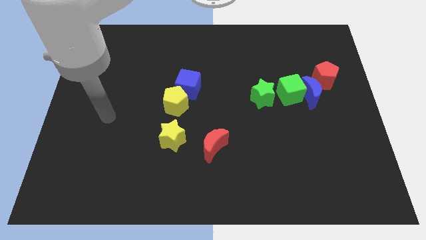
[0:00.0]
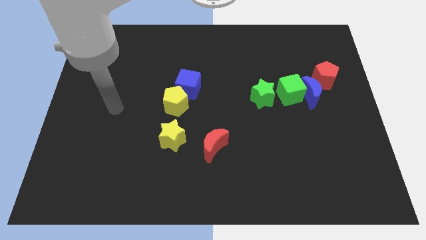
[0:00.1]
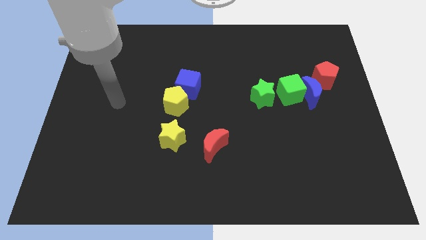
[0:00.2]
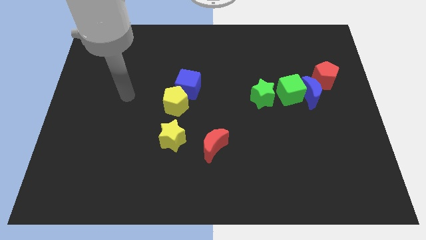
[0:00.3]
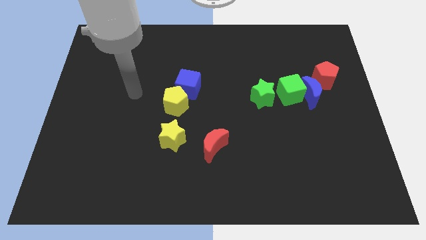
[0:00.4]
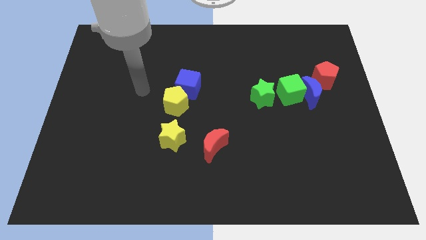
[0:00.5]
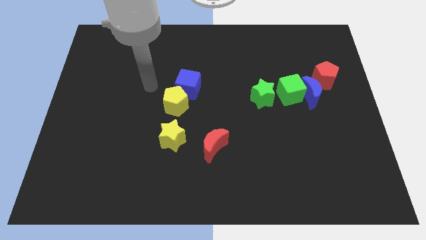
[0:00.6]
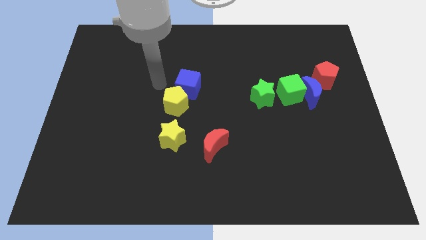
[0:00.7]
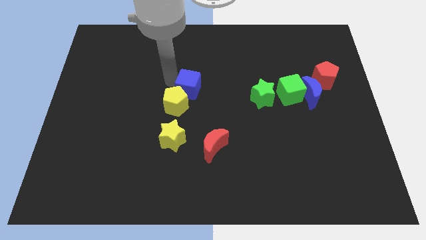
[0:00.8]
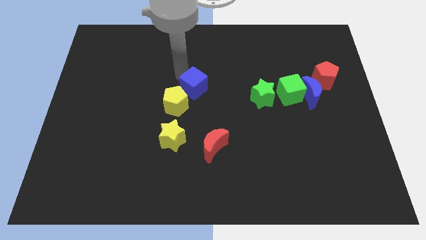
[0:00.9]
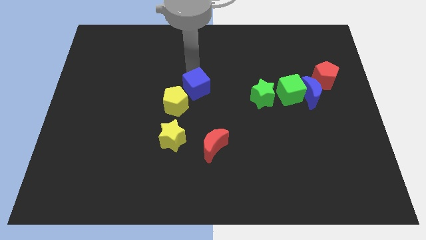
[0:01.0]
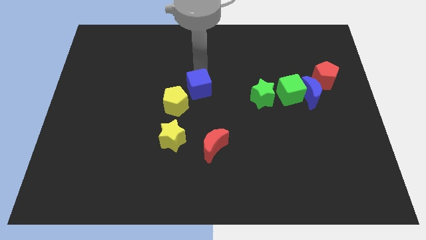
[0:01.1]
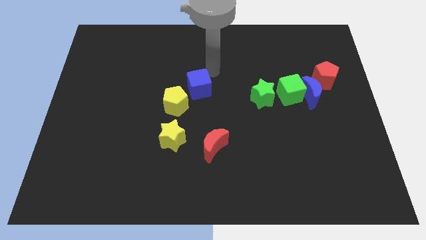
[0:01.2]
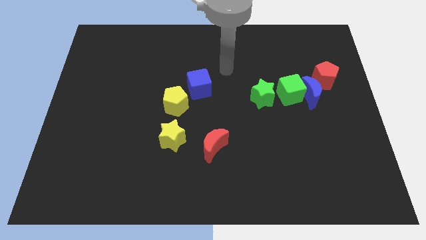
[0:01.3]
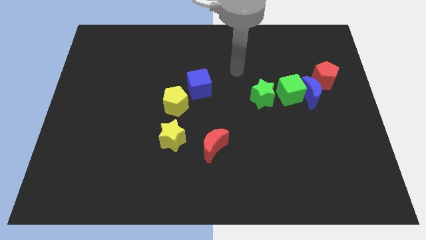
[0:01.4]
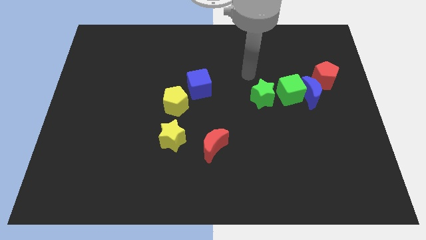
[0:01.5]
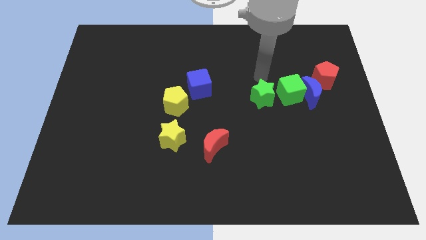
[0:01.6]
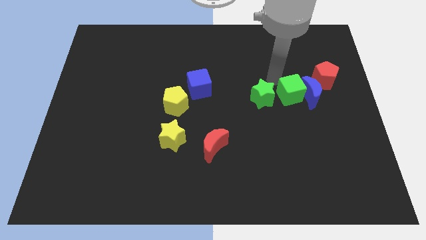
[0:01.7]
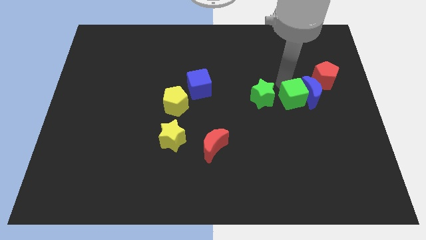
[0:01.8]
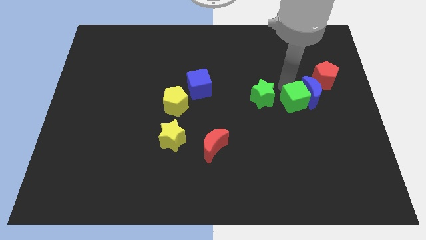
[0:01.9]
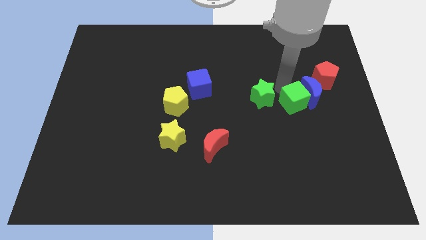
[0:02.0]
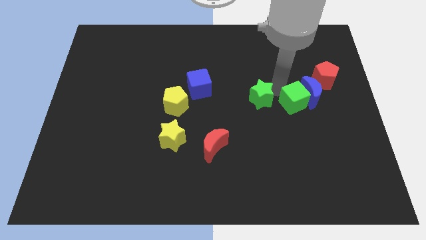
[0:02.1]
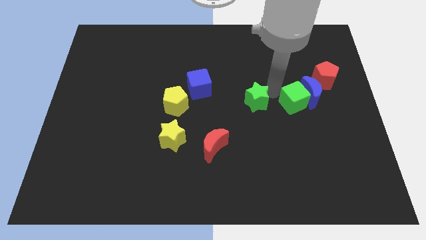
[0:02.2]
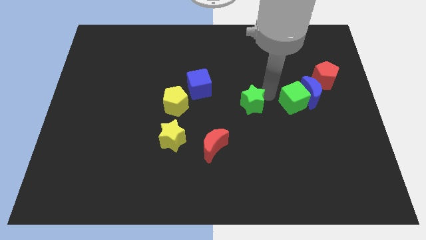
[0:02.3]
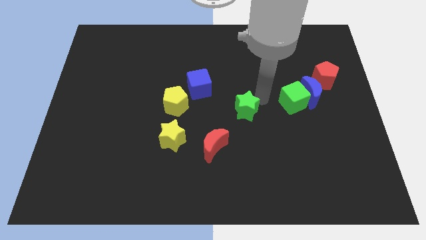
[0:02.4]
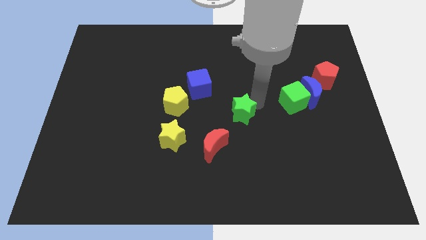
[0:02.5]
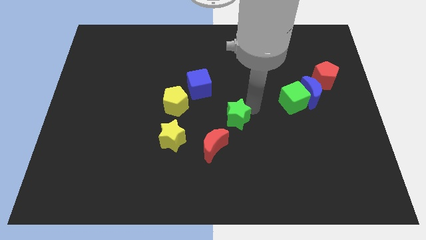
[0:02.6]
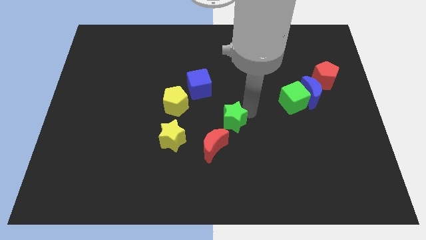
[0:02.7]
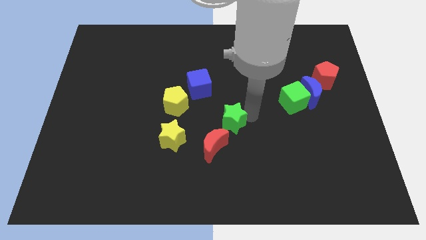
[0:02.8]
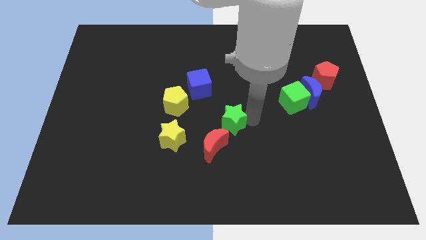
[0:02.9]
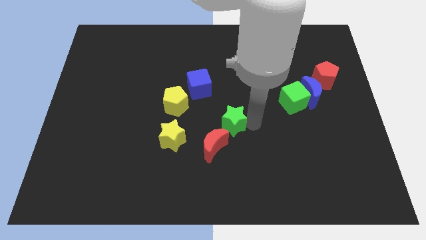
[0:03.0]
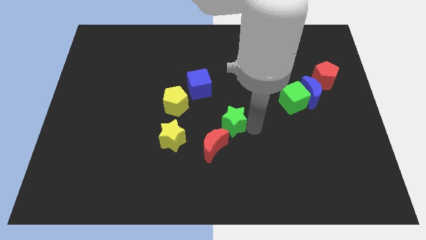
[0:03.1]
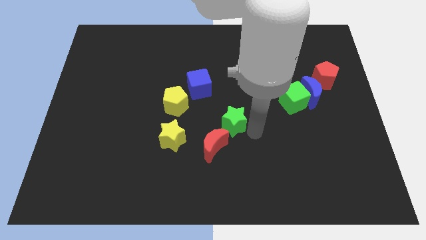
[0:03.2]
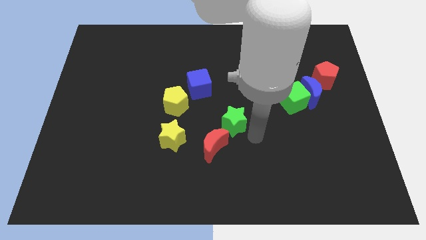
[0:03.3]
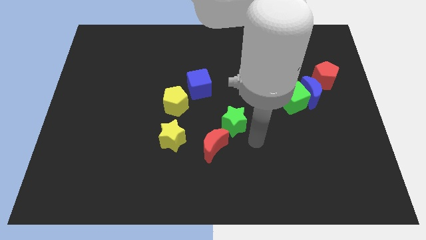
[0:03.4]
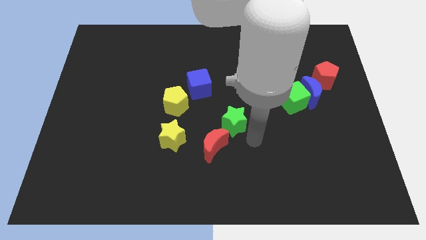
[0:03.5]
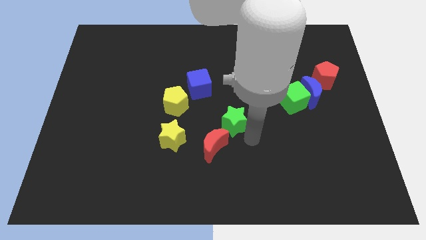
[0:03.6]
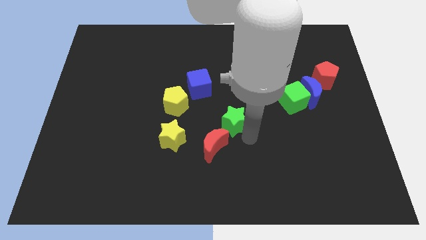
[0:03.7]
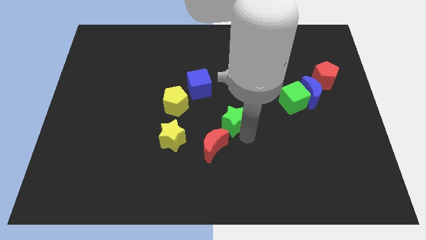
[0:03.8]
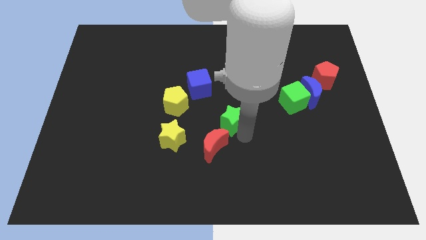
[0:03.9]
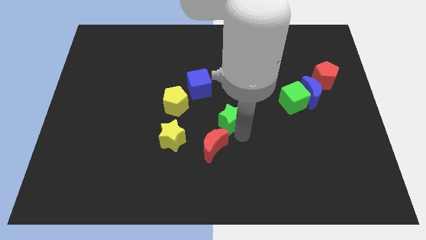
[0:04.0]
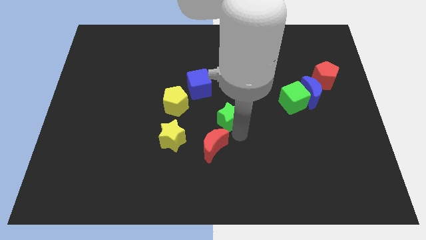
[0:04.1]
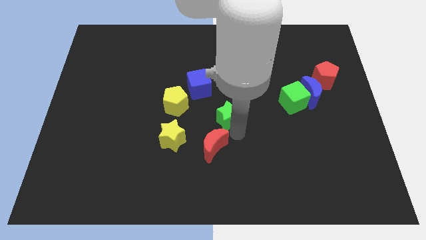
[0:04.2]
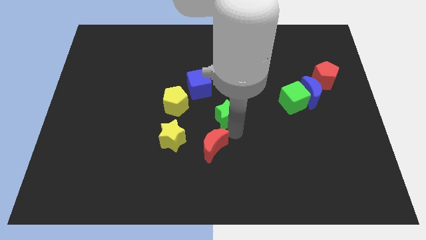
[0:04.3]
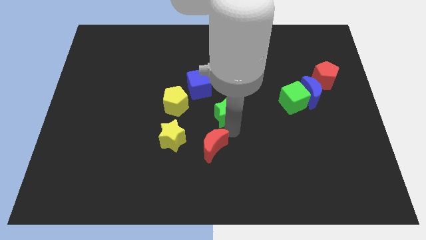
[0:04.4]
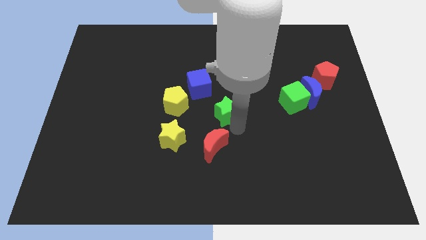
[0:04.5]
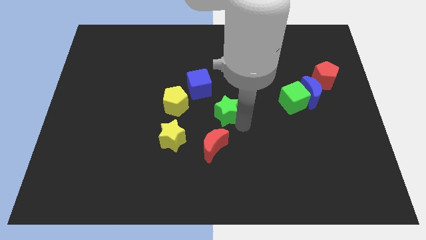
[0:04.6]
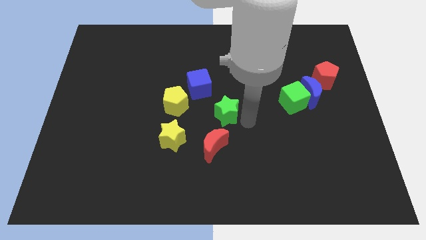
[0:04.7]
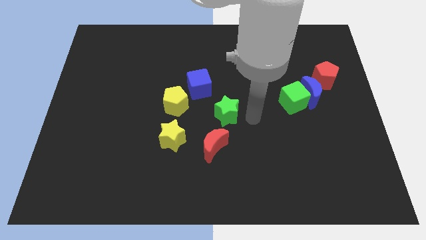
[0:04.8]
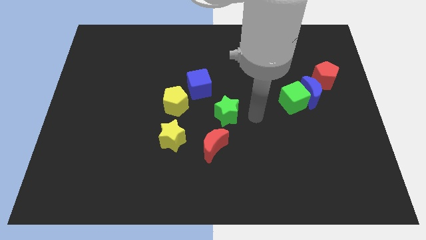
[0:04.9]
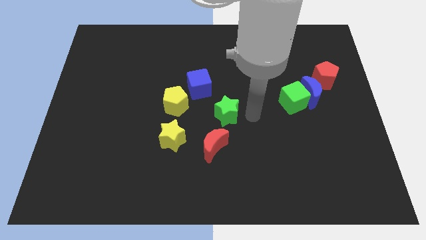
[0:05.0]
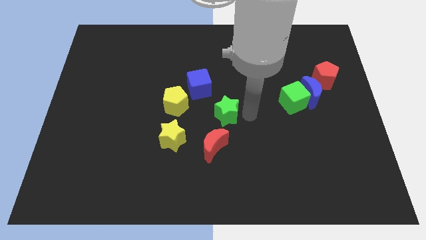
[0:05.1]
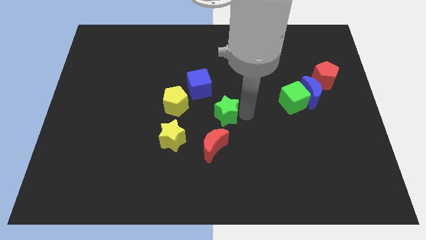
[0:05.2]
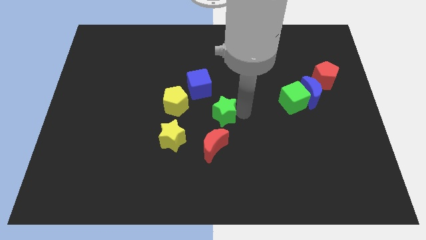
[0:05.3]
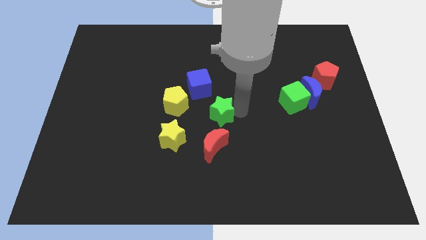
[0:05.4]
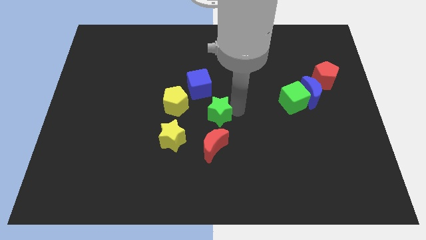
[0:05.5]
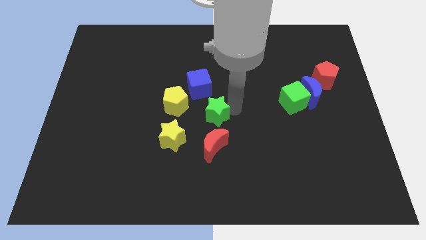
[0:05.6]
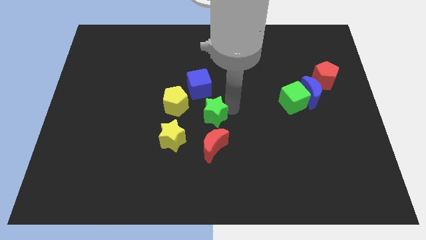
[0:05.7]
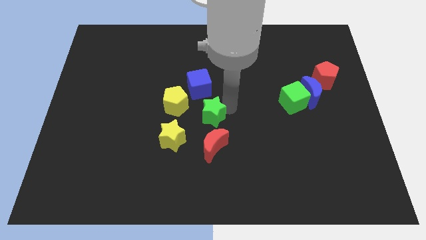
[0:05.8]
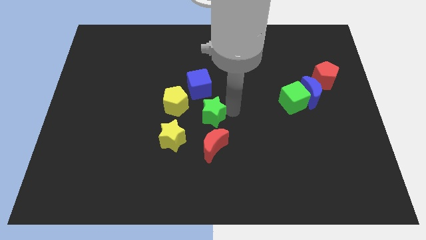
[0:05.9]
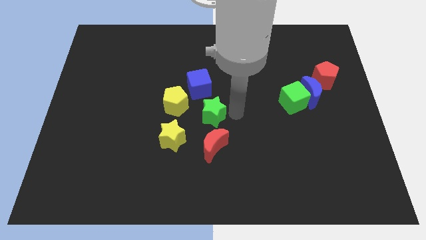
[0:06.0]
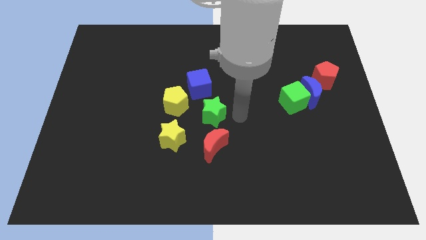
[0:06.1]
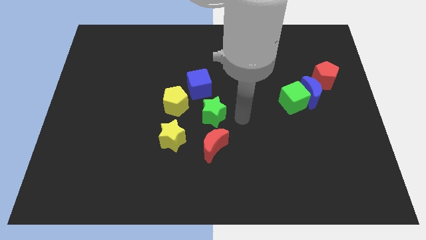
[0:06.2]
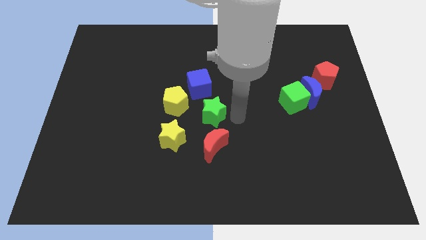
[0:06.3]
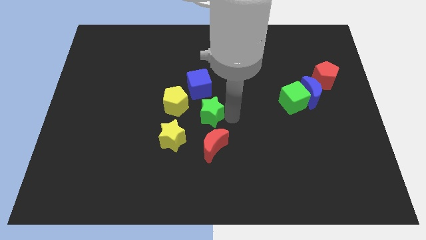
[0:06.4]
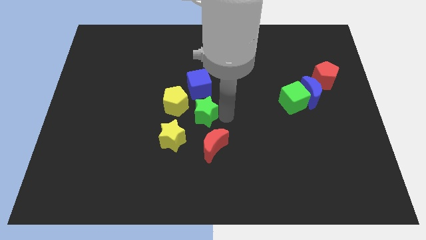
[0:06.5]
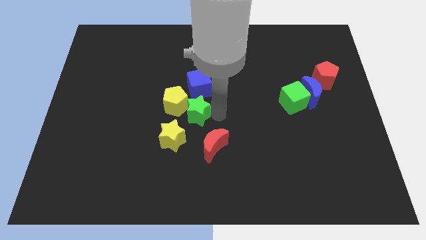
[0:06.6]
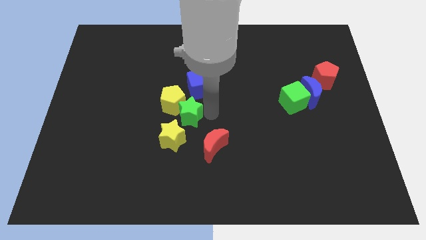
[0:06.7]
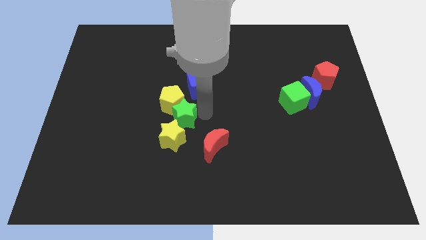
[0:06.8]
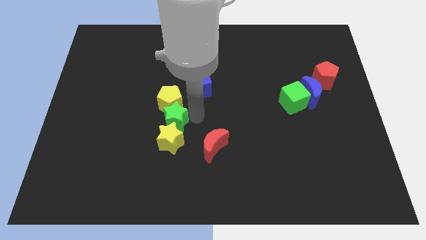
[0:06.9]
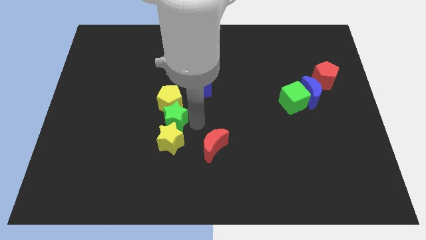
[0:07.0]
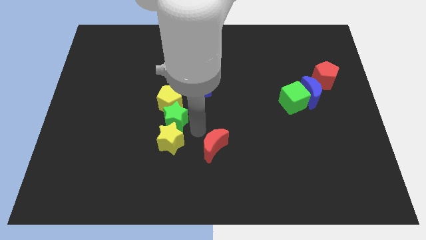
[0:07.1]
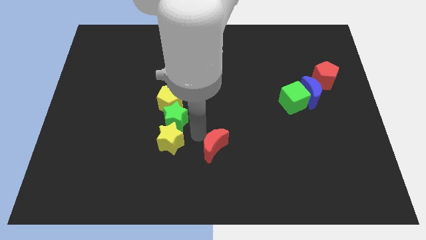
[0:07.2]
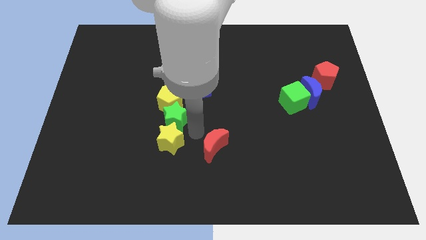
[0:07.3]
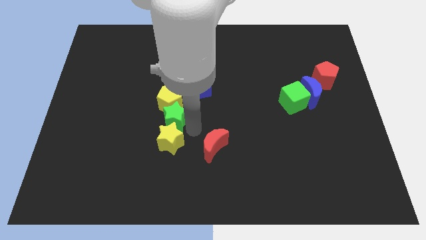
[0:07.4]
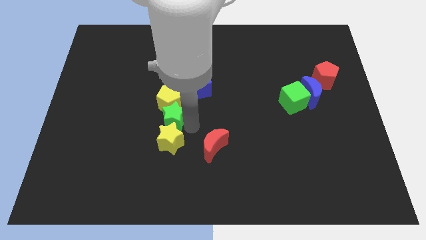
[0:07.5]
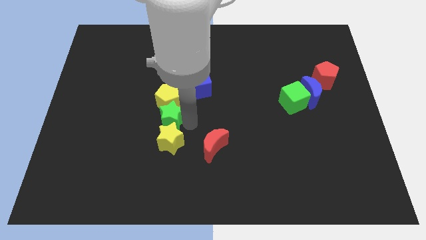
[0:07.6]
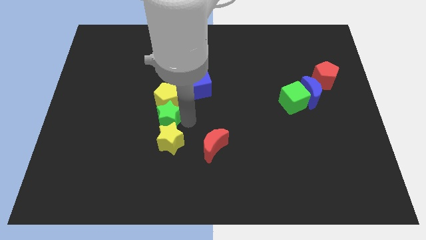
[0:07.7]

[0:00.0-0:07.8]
slide the green star left

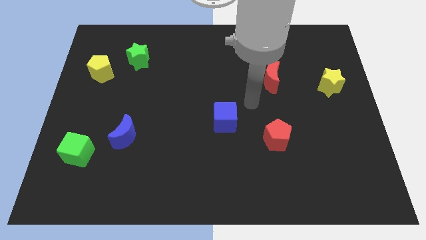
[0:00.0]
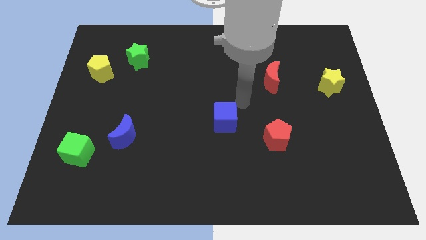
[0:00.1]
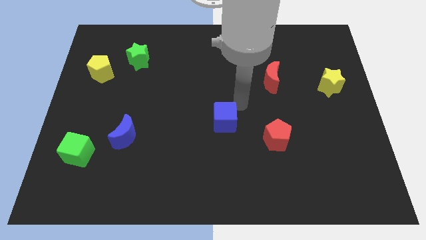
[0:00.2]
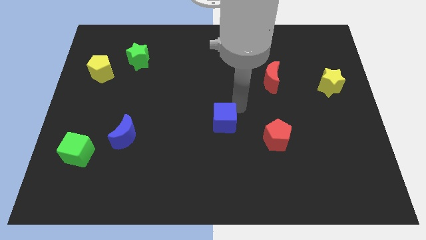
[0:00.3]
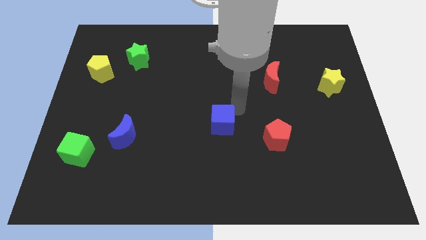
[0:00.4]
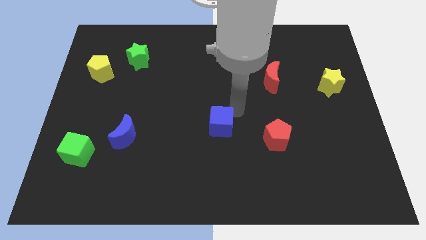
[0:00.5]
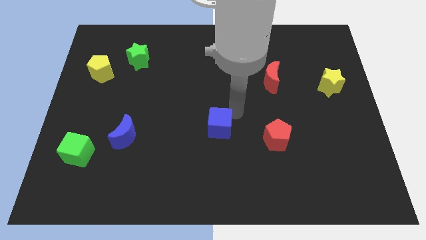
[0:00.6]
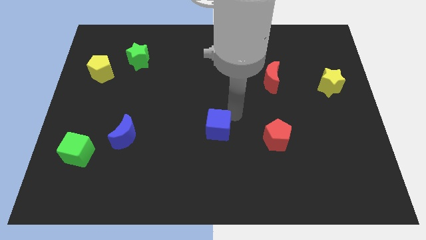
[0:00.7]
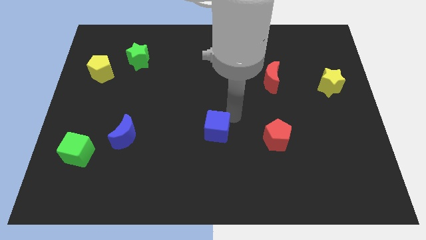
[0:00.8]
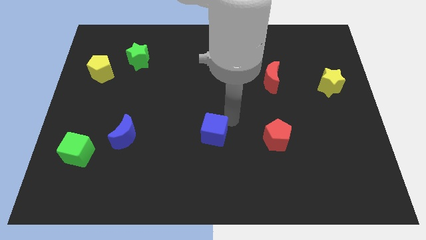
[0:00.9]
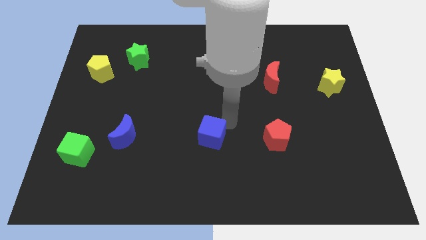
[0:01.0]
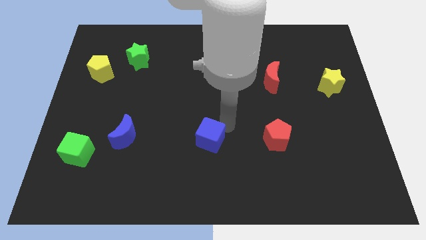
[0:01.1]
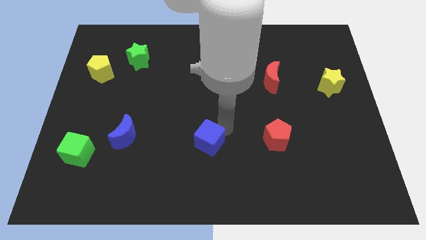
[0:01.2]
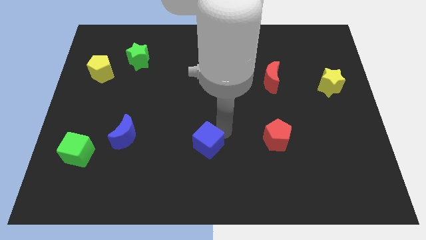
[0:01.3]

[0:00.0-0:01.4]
push the blue cube somewhat down and to the left diagonally
